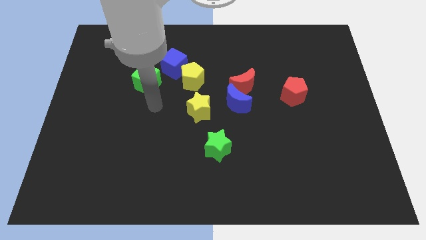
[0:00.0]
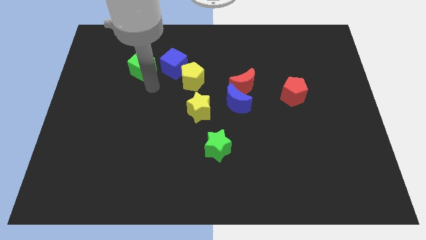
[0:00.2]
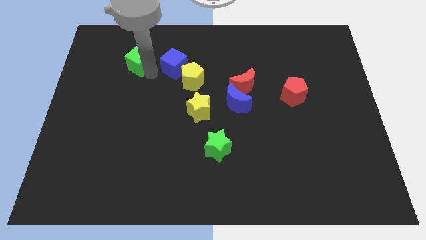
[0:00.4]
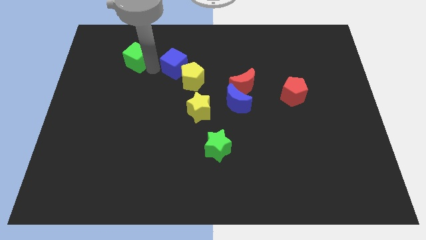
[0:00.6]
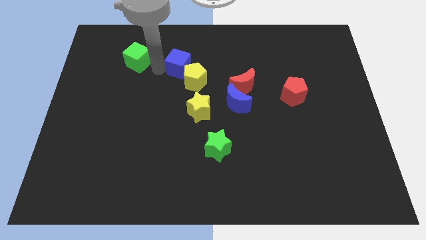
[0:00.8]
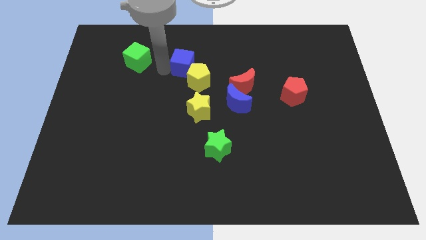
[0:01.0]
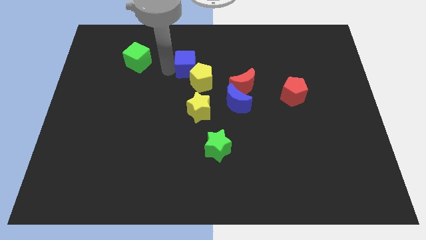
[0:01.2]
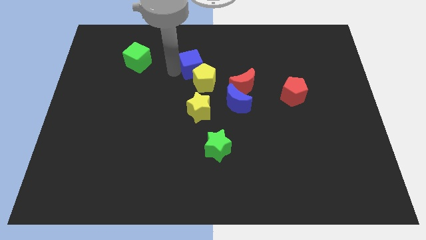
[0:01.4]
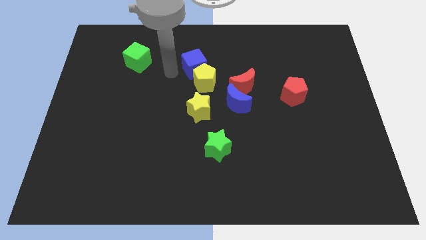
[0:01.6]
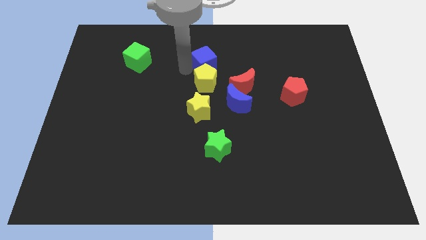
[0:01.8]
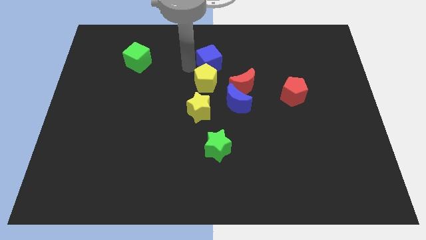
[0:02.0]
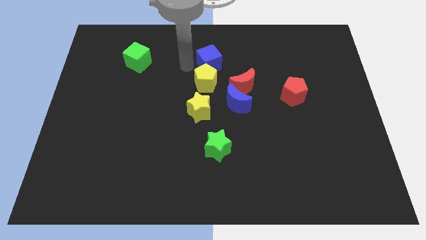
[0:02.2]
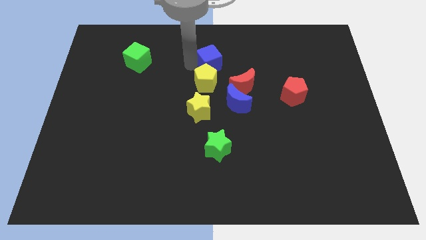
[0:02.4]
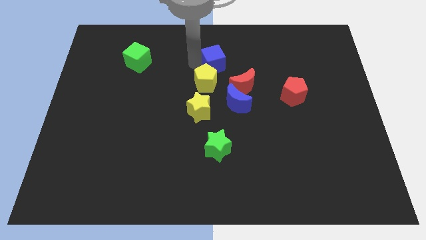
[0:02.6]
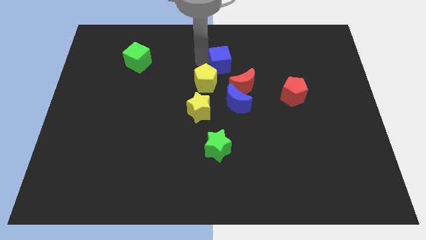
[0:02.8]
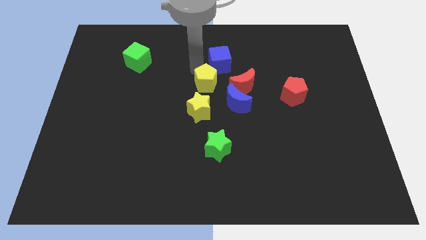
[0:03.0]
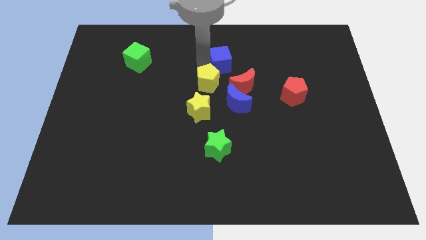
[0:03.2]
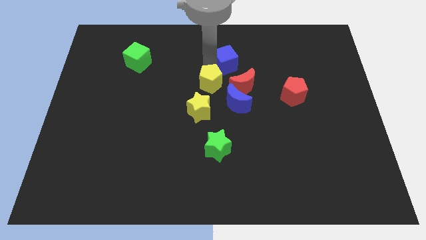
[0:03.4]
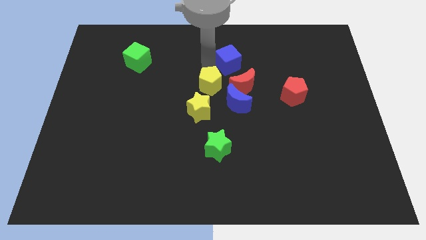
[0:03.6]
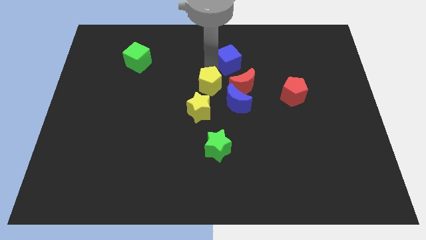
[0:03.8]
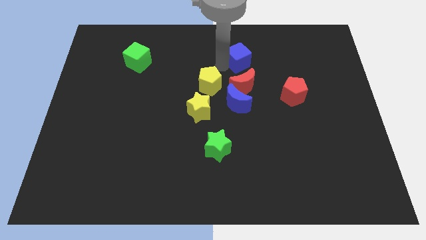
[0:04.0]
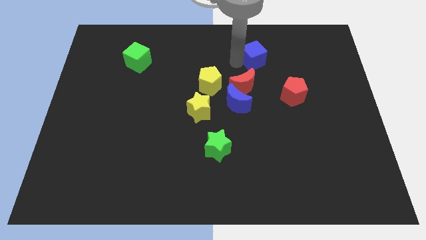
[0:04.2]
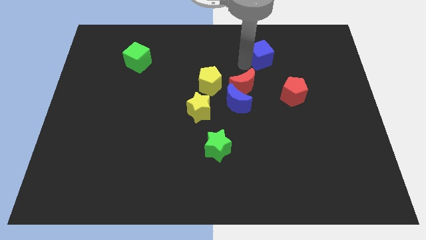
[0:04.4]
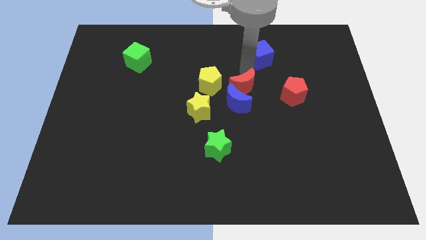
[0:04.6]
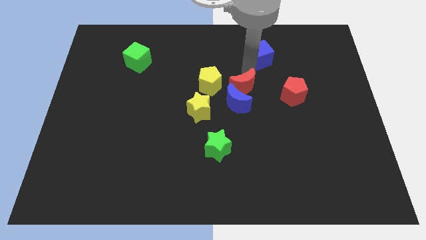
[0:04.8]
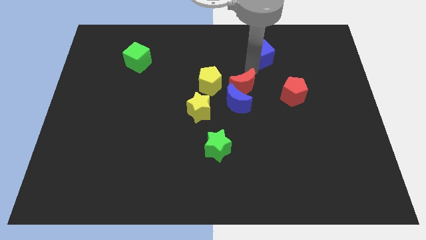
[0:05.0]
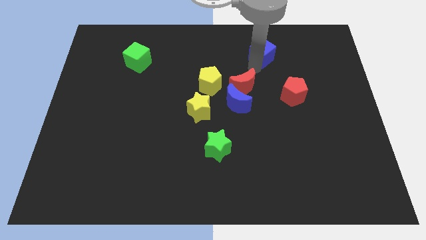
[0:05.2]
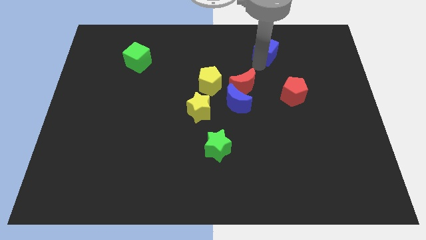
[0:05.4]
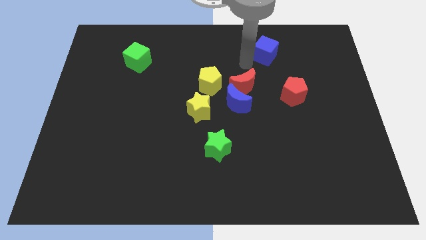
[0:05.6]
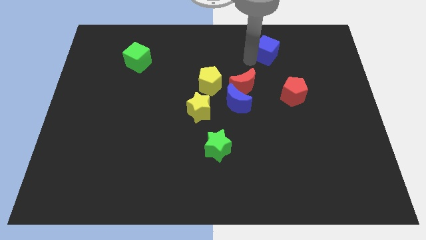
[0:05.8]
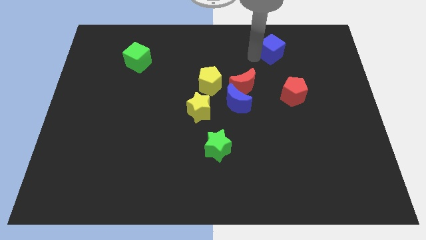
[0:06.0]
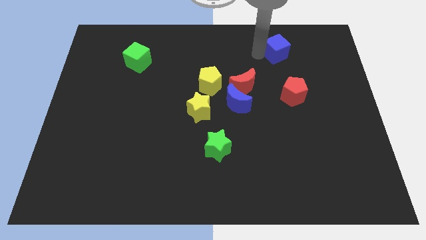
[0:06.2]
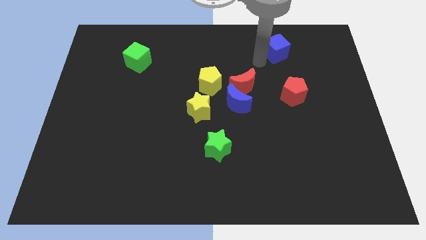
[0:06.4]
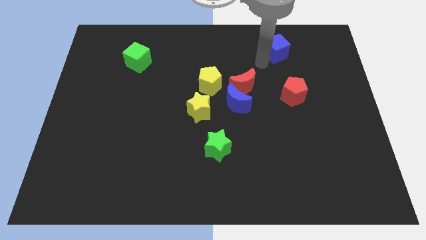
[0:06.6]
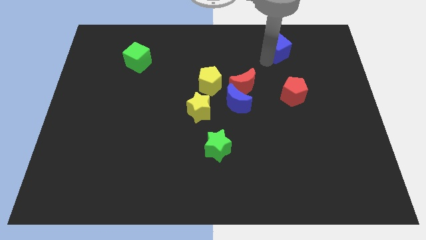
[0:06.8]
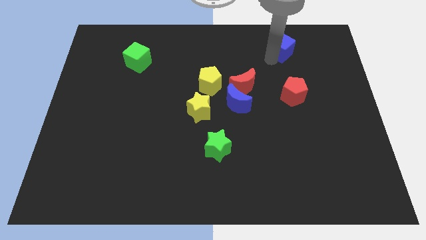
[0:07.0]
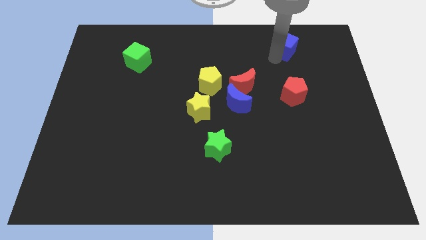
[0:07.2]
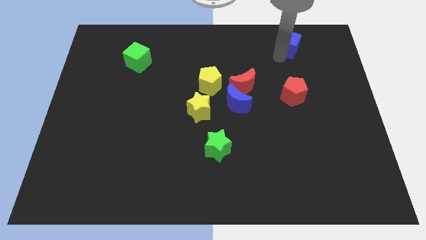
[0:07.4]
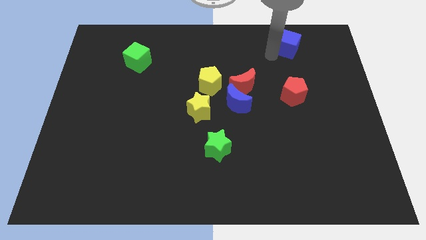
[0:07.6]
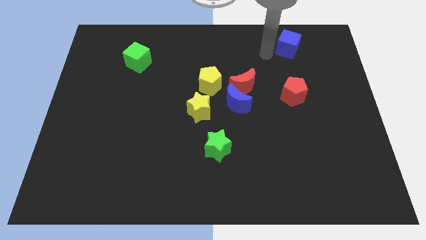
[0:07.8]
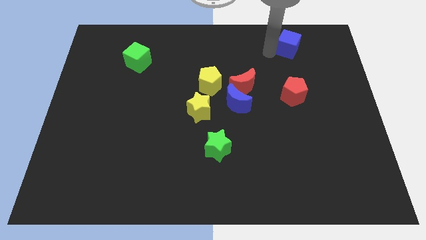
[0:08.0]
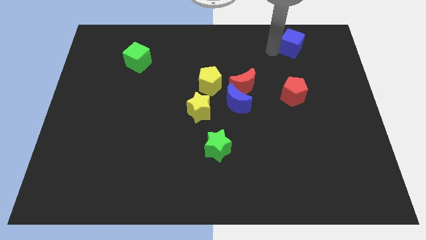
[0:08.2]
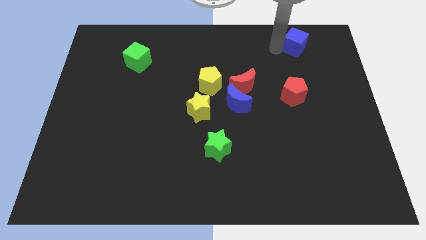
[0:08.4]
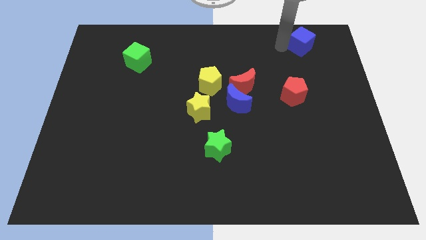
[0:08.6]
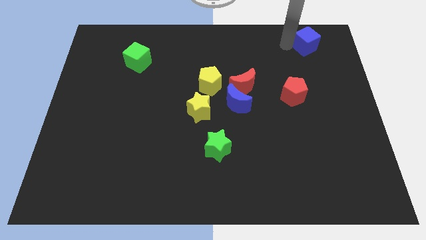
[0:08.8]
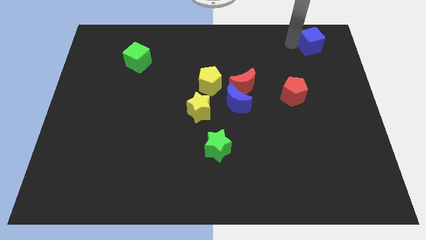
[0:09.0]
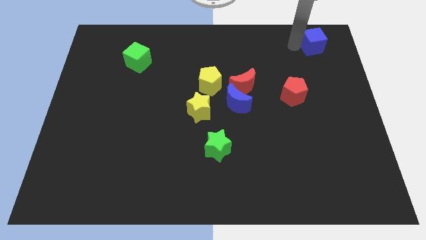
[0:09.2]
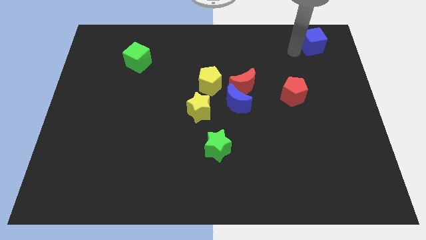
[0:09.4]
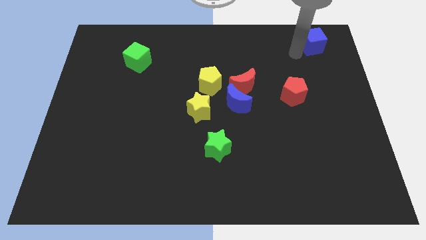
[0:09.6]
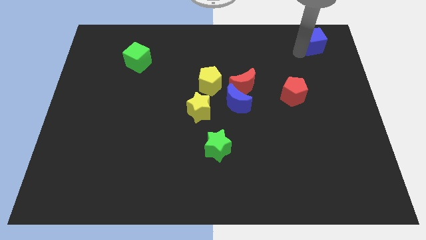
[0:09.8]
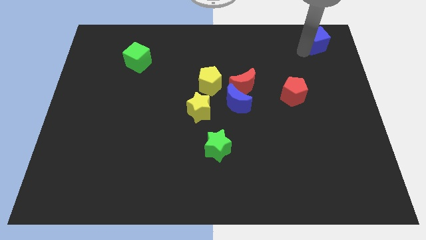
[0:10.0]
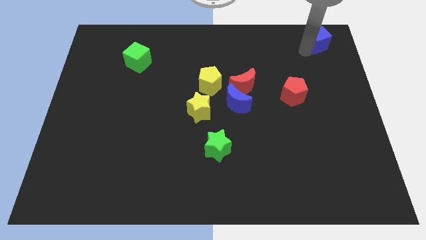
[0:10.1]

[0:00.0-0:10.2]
push the blue cube to the top right corner
